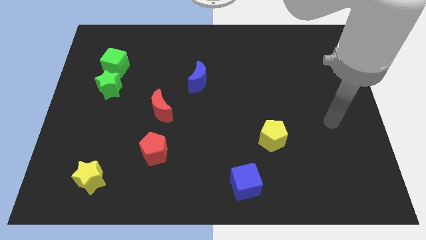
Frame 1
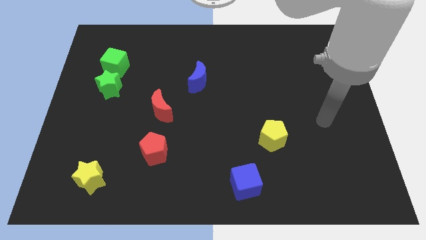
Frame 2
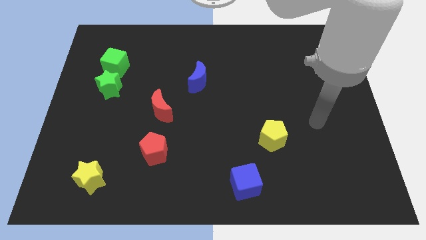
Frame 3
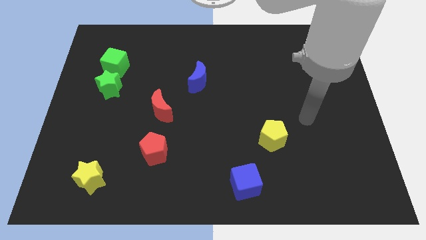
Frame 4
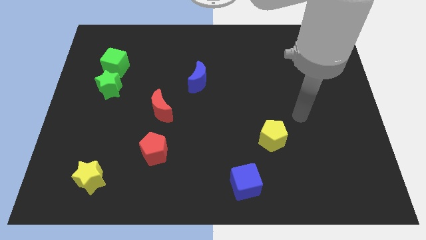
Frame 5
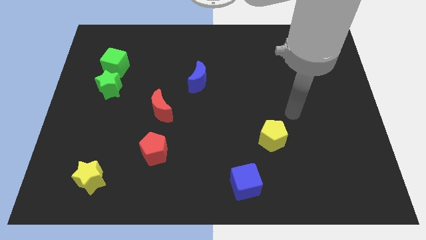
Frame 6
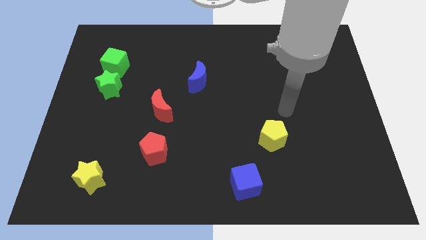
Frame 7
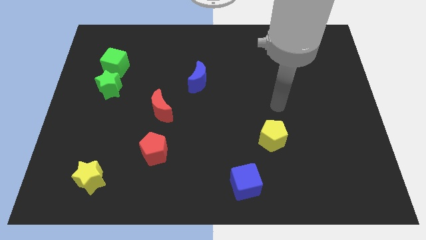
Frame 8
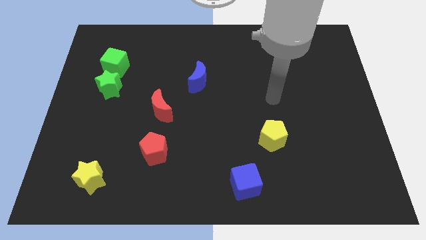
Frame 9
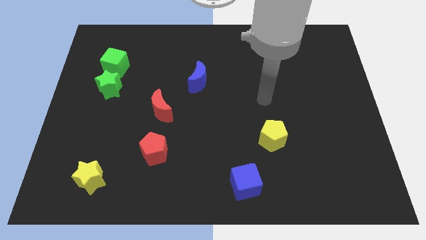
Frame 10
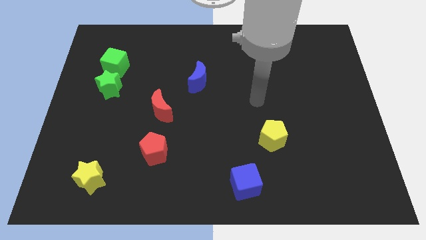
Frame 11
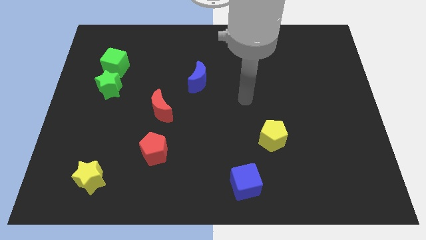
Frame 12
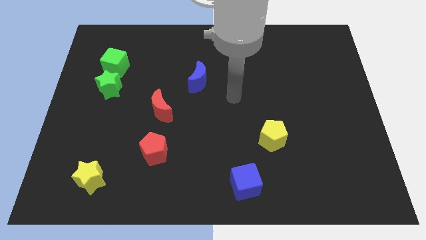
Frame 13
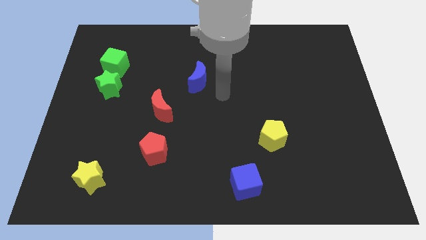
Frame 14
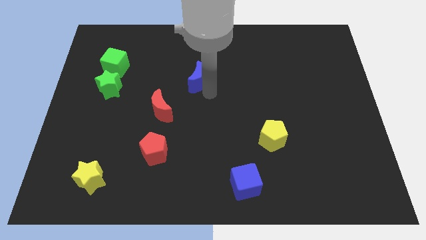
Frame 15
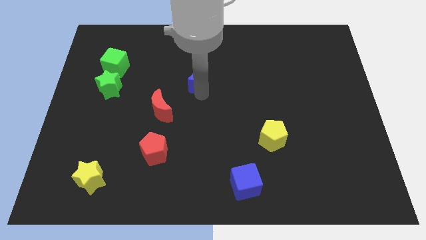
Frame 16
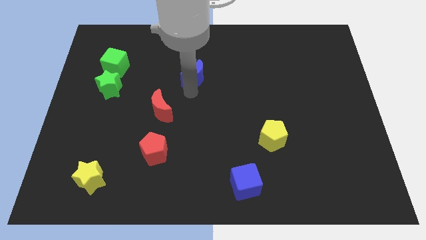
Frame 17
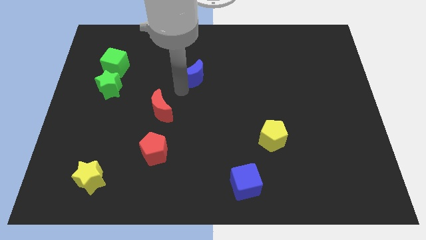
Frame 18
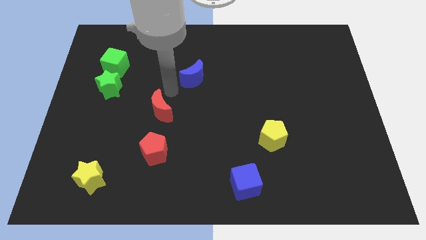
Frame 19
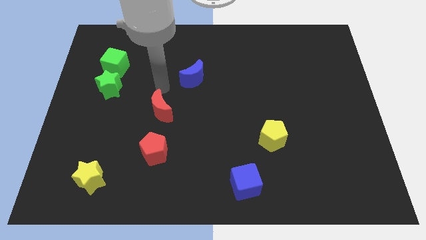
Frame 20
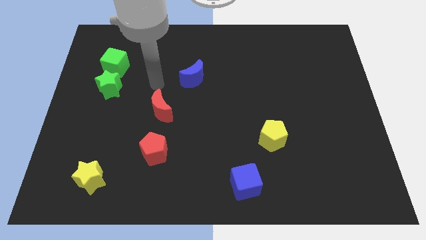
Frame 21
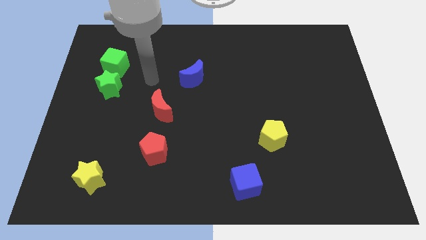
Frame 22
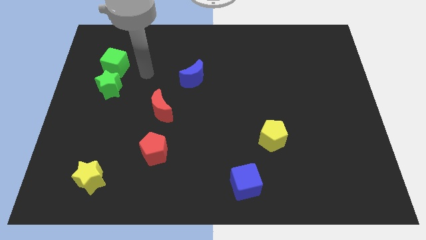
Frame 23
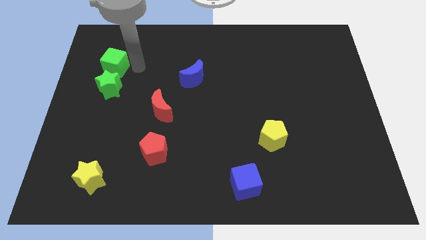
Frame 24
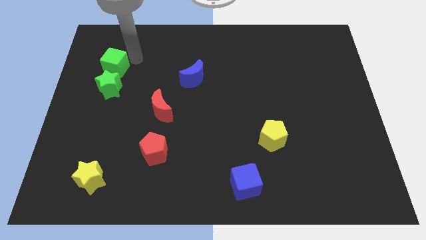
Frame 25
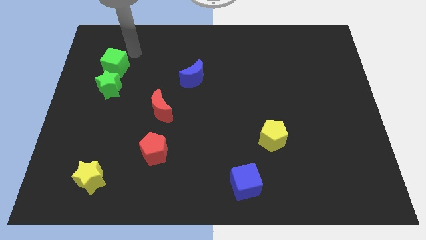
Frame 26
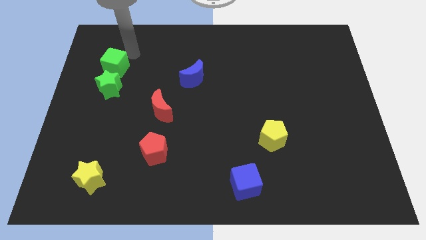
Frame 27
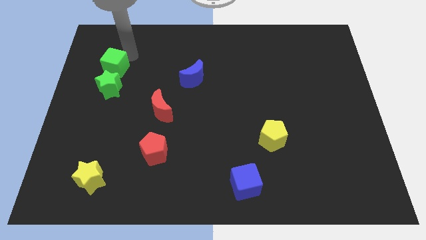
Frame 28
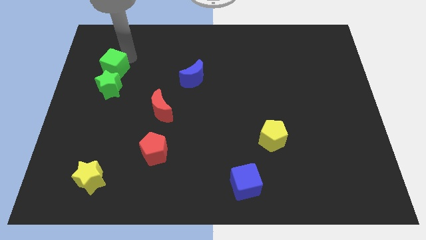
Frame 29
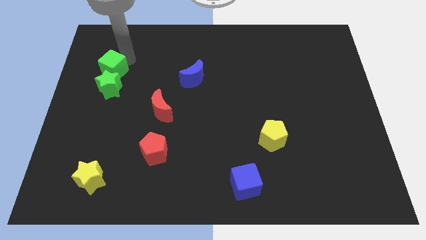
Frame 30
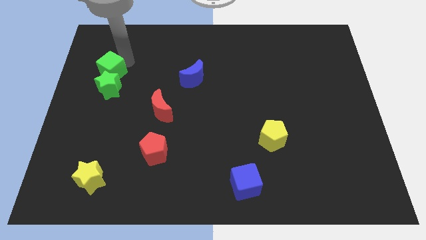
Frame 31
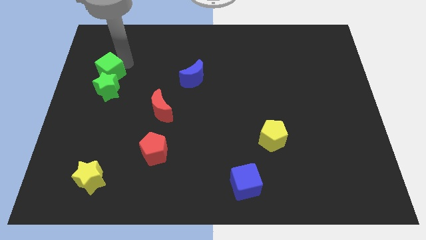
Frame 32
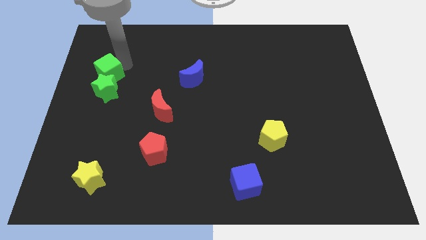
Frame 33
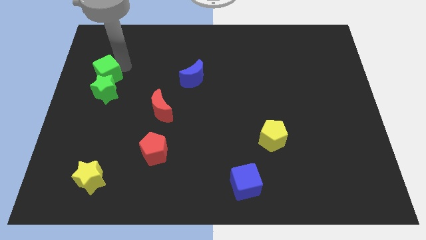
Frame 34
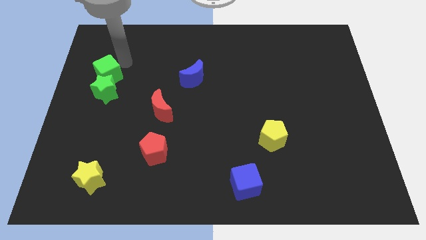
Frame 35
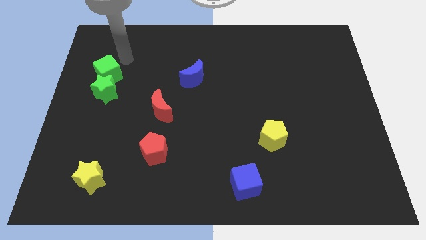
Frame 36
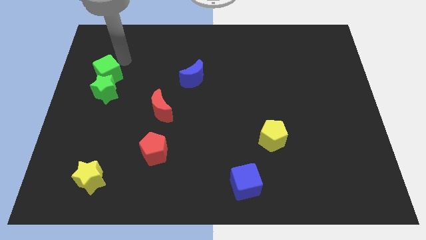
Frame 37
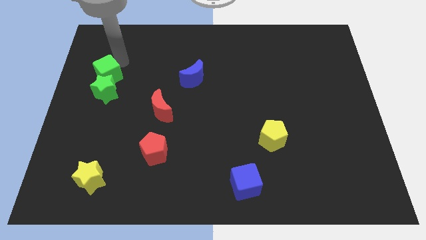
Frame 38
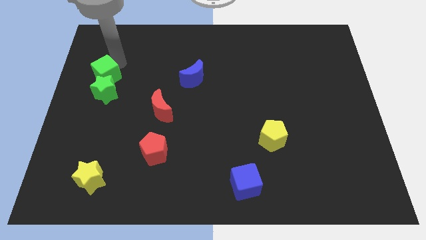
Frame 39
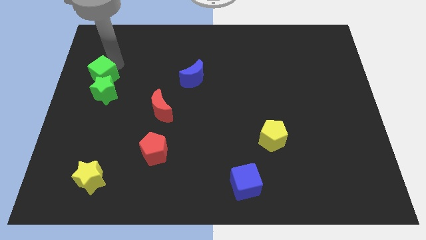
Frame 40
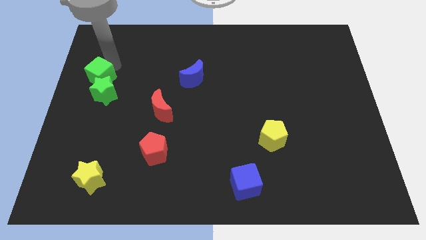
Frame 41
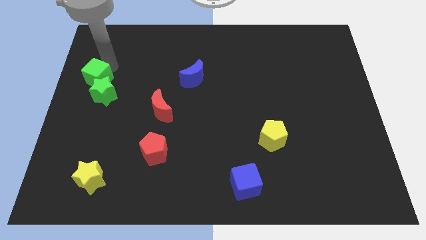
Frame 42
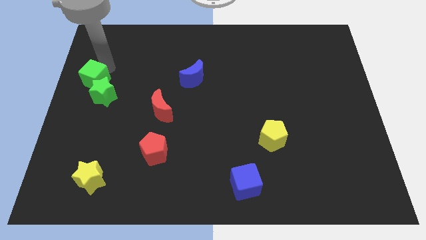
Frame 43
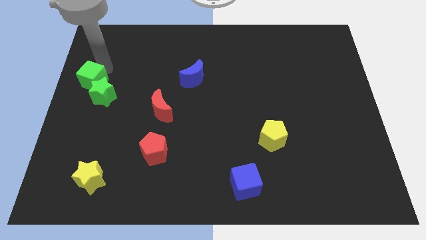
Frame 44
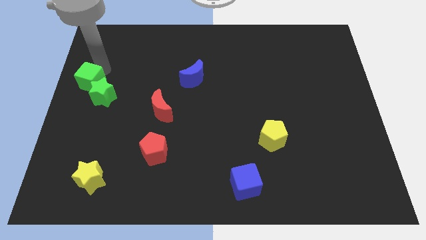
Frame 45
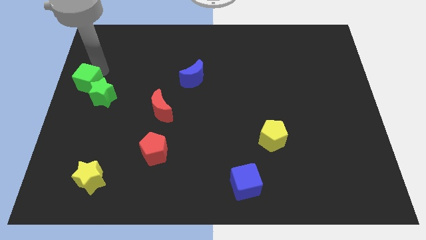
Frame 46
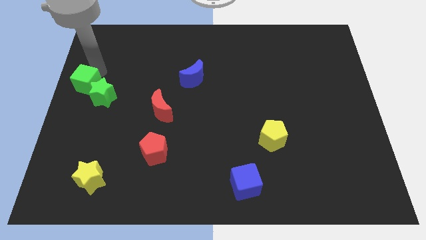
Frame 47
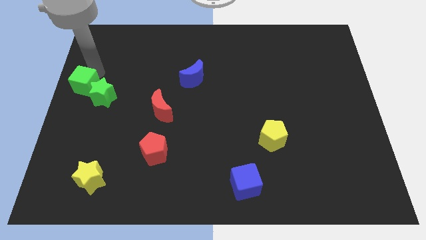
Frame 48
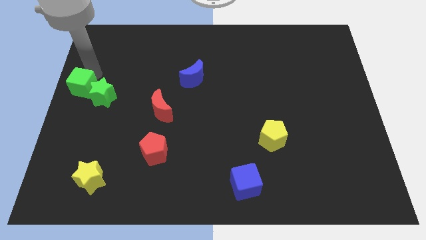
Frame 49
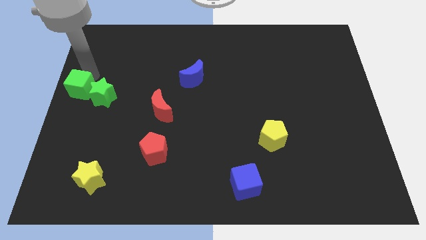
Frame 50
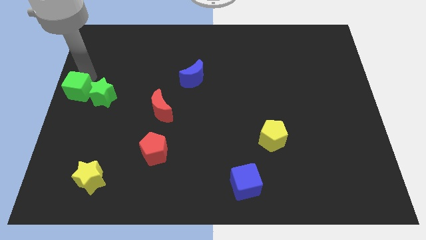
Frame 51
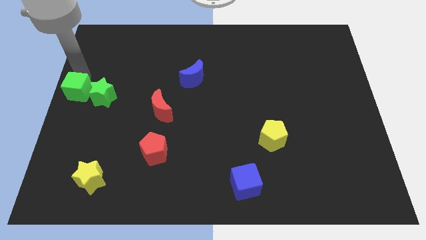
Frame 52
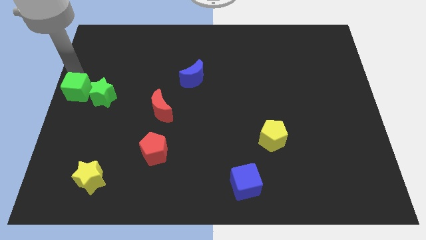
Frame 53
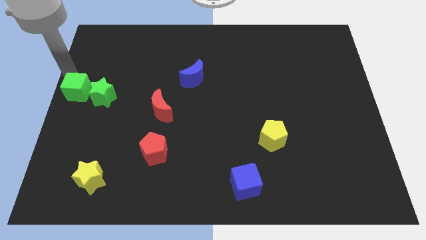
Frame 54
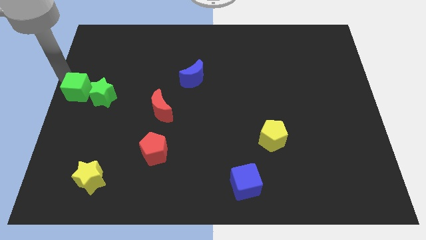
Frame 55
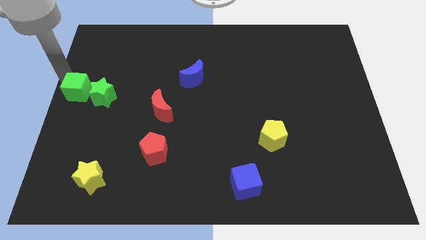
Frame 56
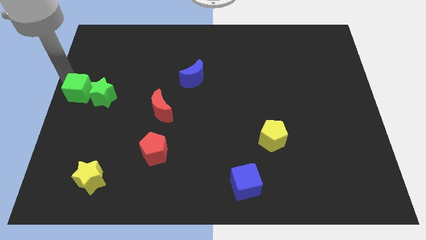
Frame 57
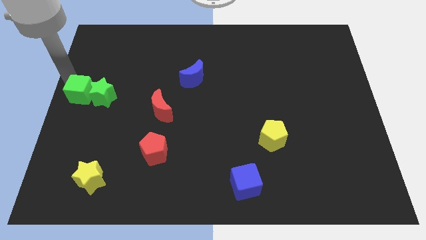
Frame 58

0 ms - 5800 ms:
push the green cube a little bit down

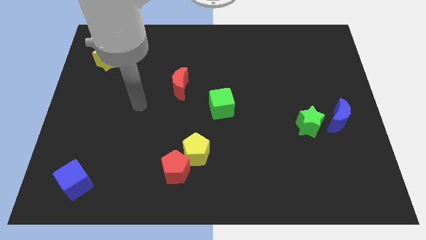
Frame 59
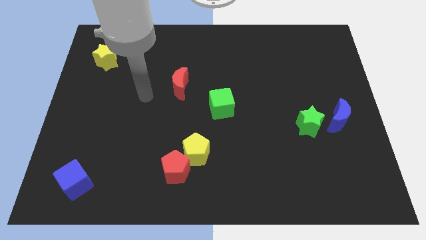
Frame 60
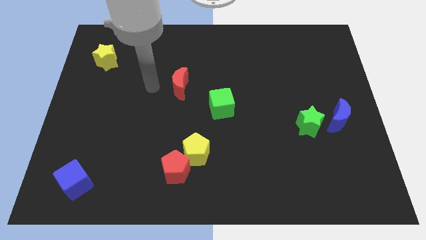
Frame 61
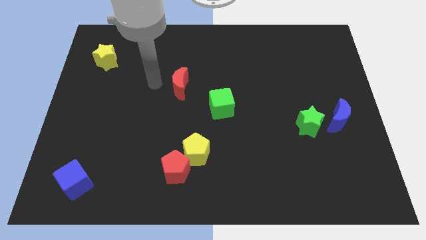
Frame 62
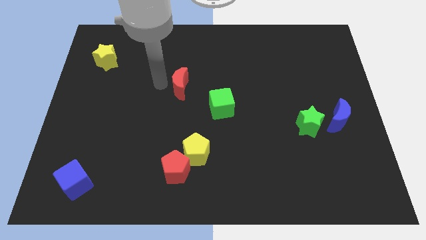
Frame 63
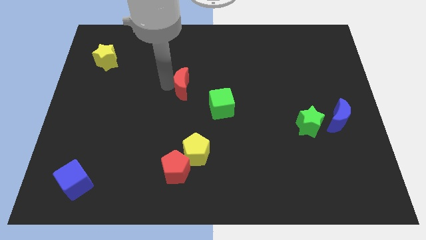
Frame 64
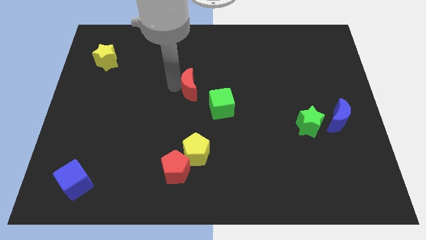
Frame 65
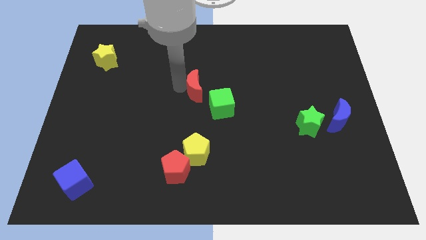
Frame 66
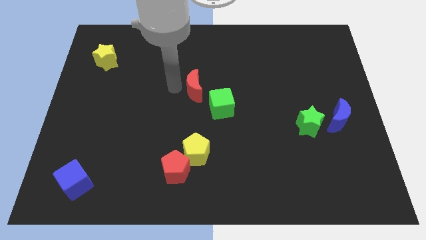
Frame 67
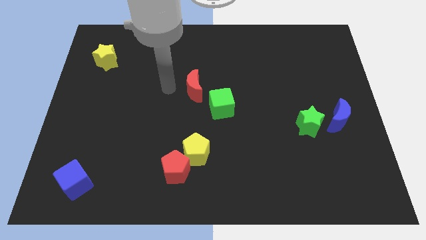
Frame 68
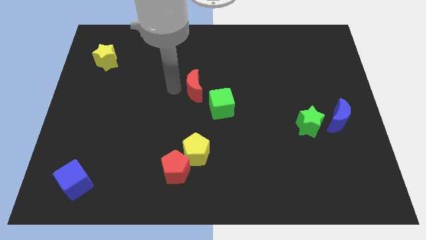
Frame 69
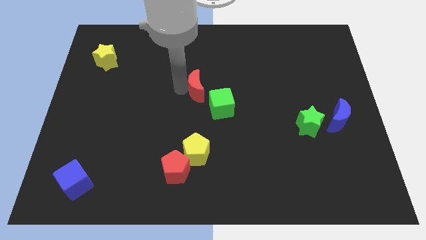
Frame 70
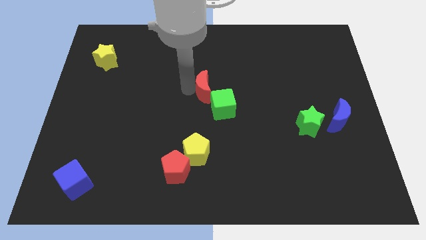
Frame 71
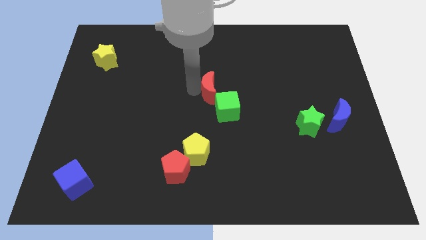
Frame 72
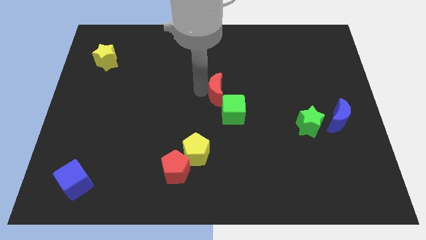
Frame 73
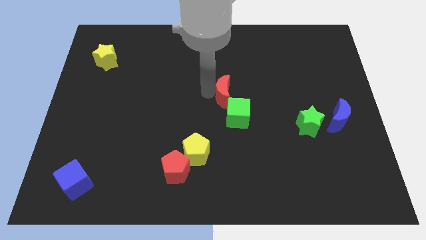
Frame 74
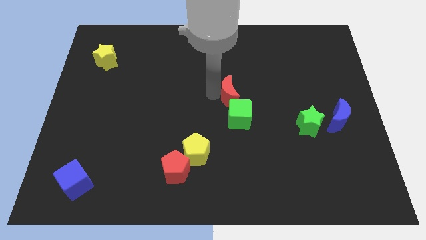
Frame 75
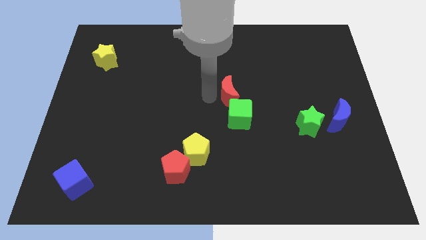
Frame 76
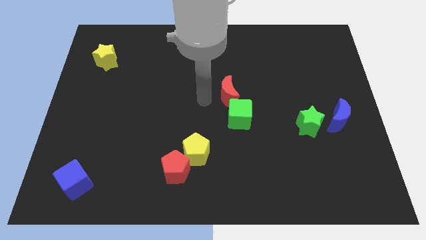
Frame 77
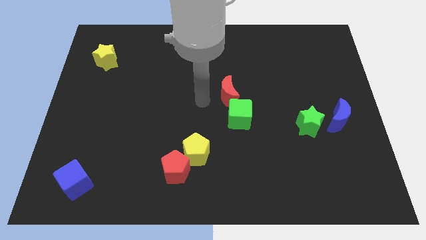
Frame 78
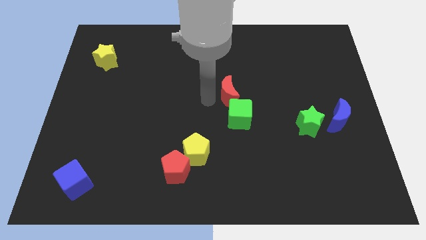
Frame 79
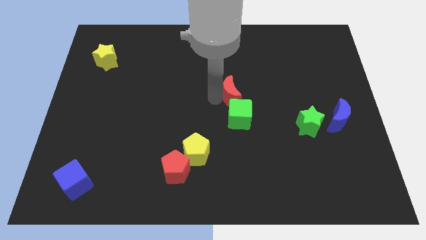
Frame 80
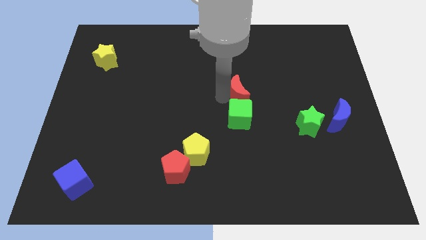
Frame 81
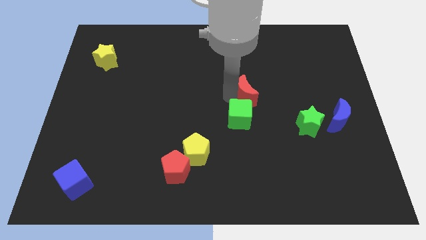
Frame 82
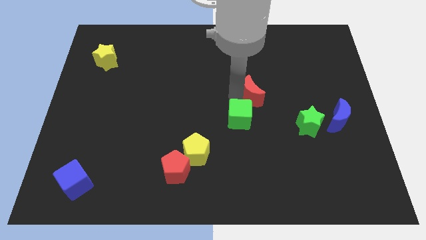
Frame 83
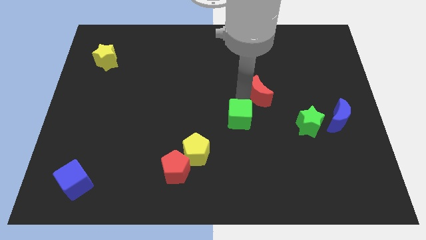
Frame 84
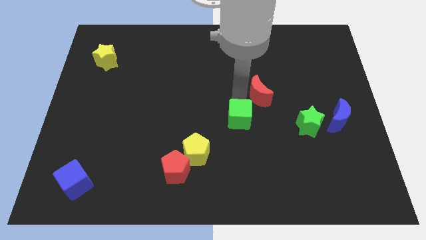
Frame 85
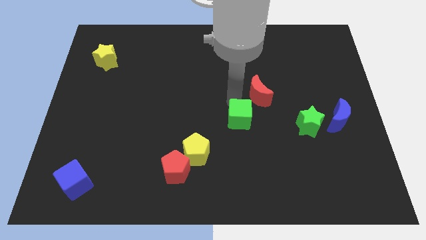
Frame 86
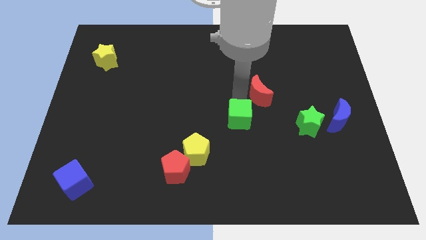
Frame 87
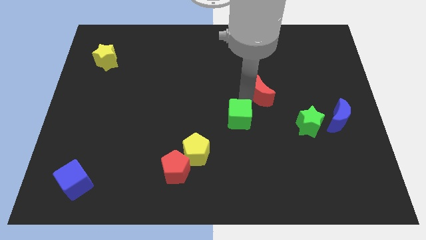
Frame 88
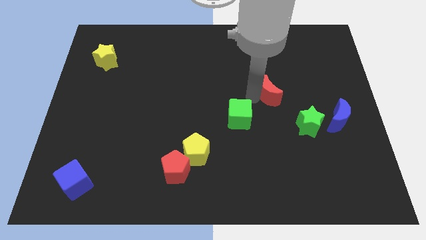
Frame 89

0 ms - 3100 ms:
slide the red moon right
